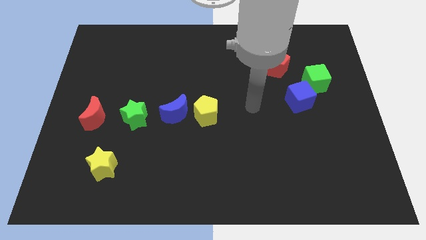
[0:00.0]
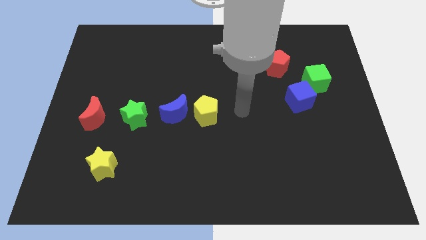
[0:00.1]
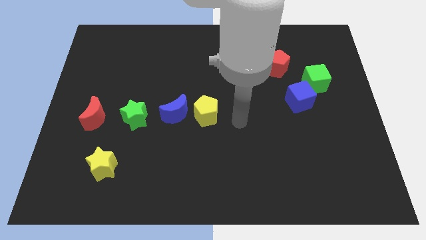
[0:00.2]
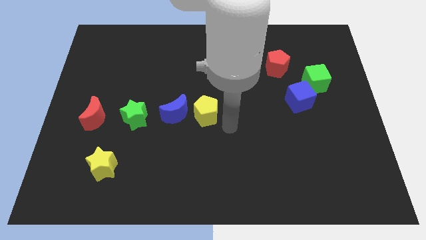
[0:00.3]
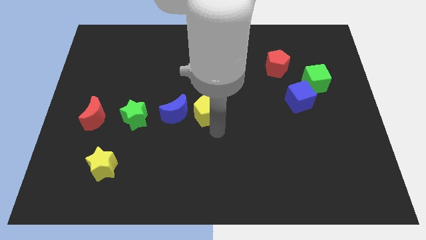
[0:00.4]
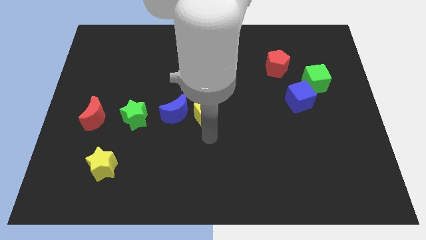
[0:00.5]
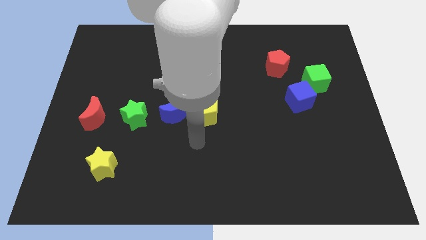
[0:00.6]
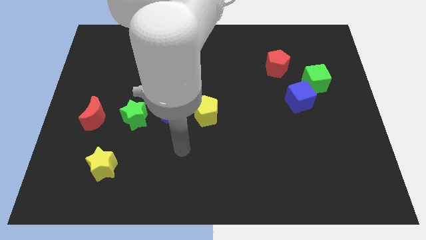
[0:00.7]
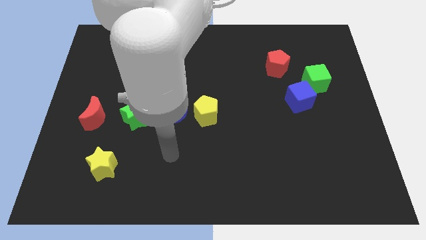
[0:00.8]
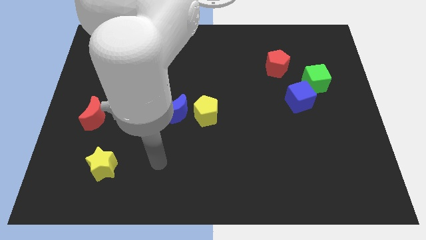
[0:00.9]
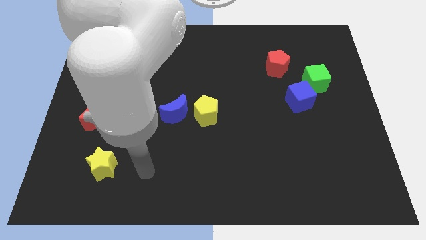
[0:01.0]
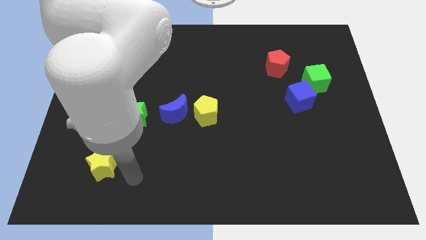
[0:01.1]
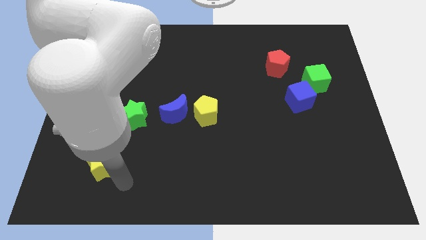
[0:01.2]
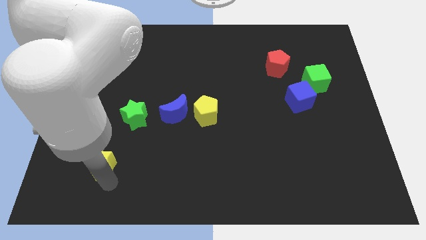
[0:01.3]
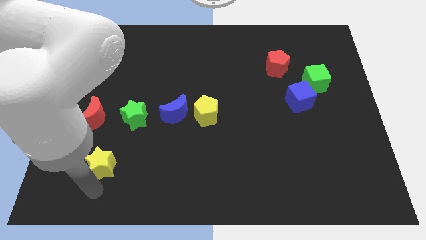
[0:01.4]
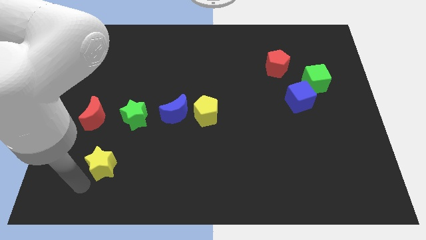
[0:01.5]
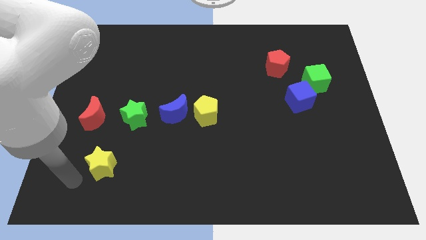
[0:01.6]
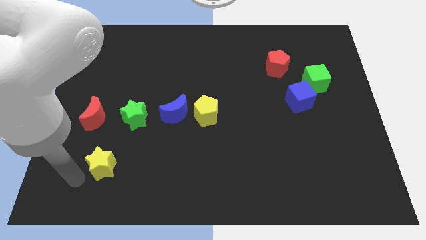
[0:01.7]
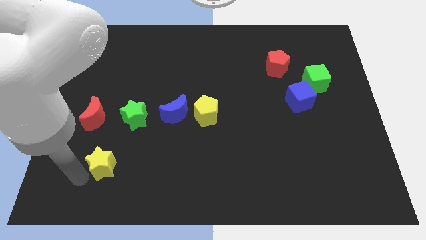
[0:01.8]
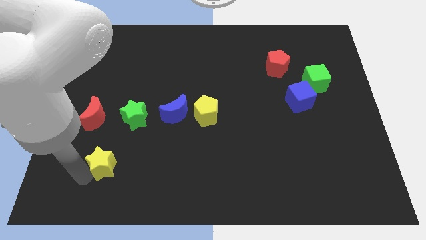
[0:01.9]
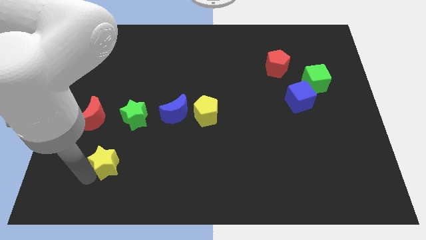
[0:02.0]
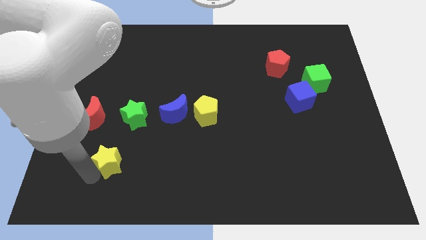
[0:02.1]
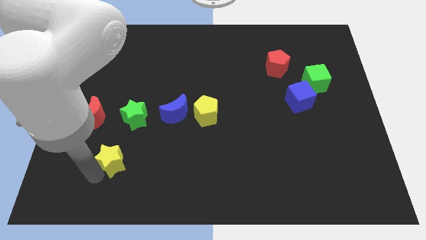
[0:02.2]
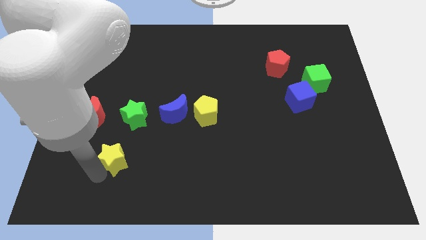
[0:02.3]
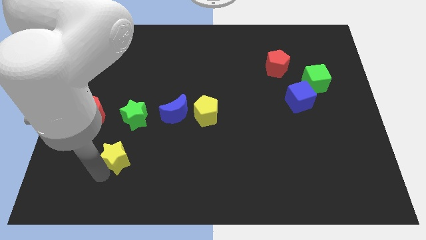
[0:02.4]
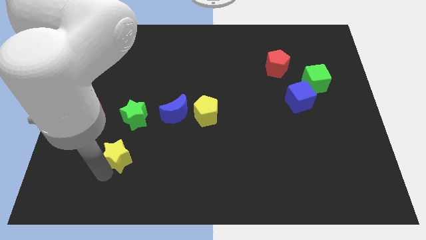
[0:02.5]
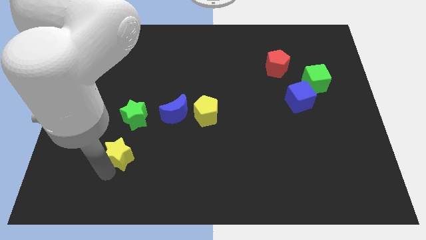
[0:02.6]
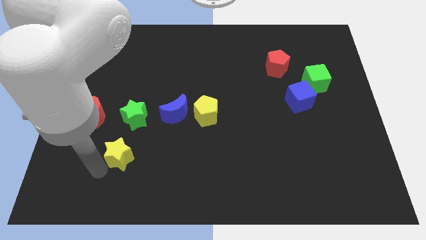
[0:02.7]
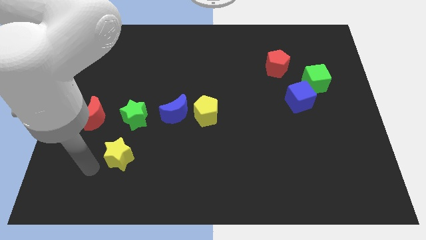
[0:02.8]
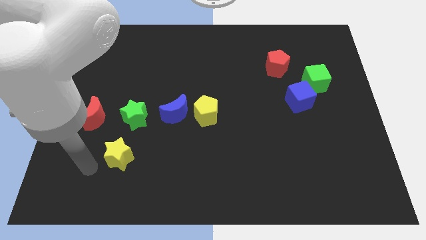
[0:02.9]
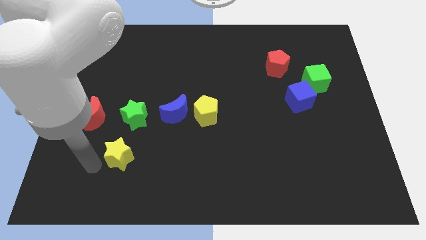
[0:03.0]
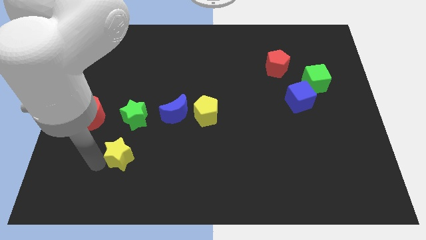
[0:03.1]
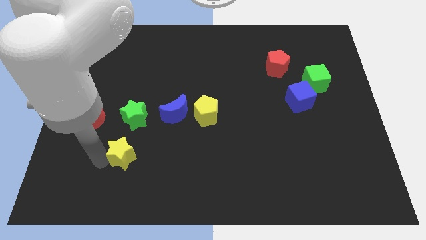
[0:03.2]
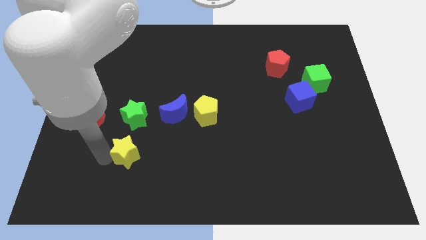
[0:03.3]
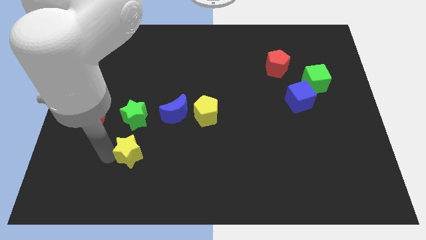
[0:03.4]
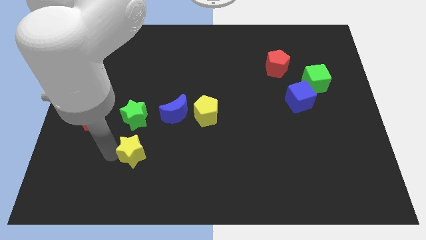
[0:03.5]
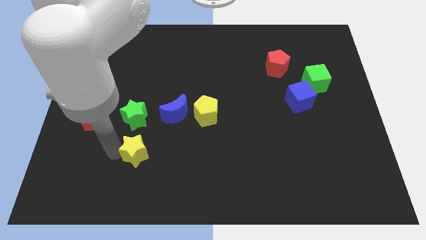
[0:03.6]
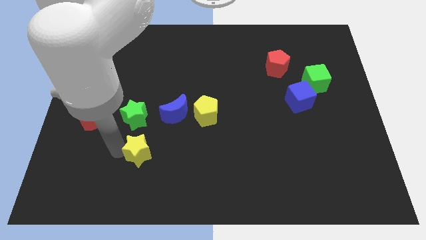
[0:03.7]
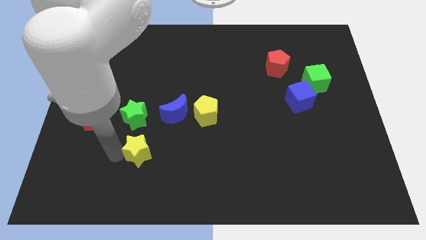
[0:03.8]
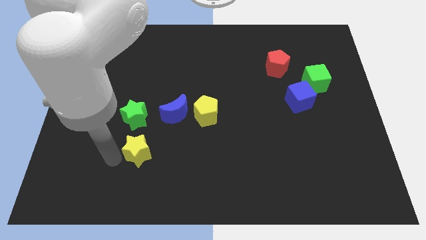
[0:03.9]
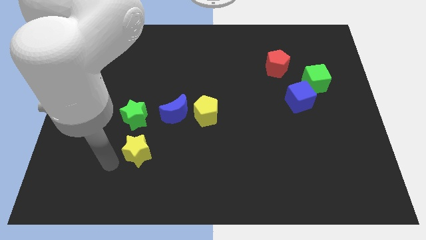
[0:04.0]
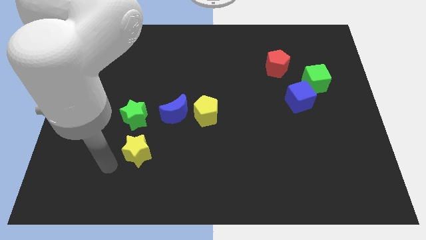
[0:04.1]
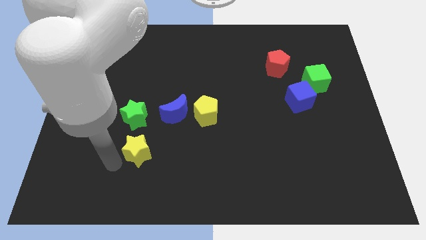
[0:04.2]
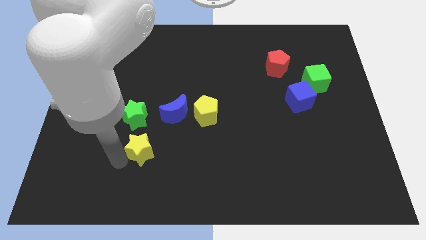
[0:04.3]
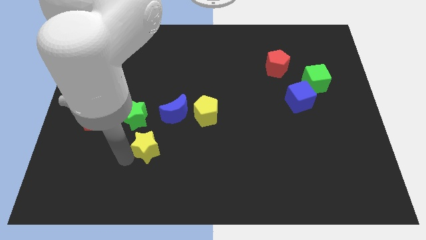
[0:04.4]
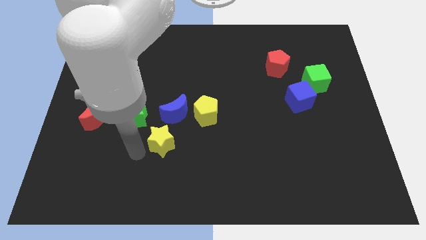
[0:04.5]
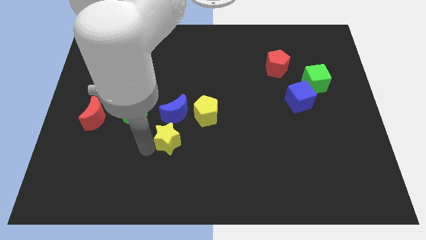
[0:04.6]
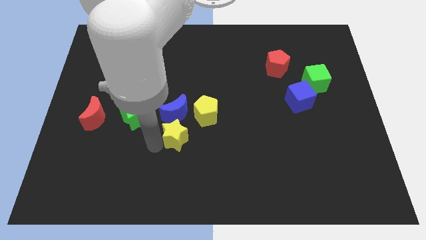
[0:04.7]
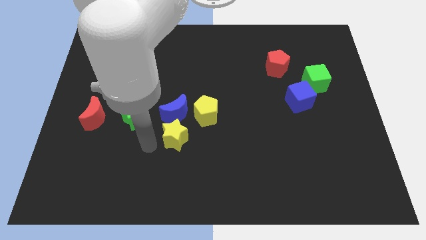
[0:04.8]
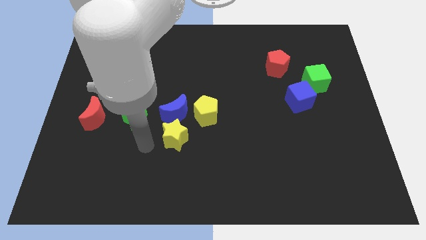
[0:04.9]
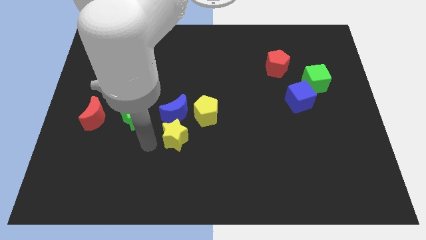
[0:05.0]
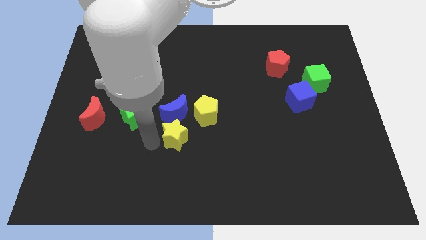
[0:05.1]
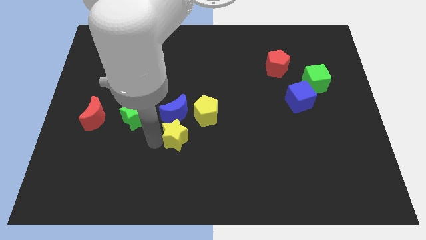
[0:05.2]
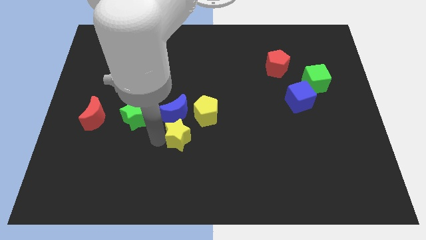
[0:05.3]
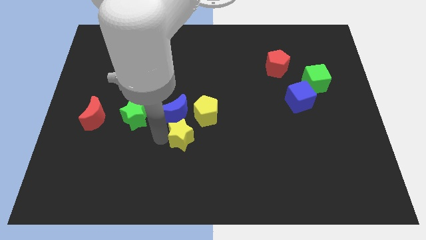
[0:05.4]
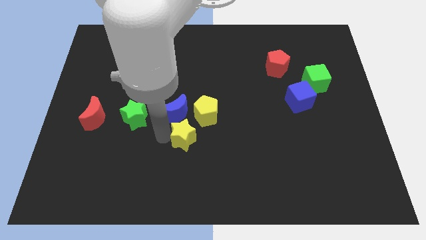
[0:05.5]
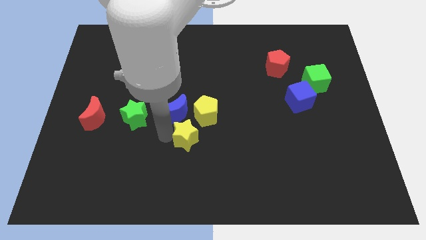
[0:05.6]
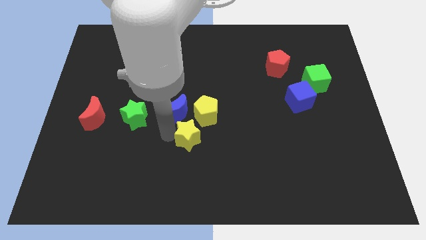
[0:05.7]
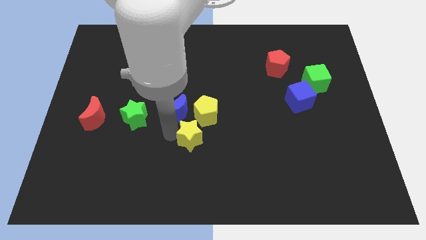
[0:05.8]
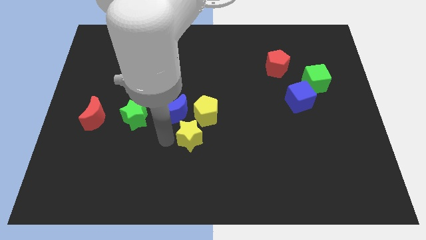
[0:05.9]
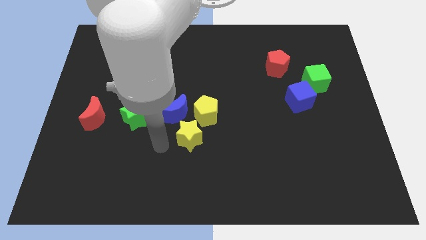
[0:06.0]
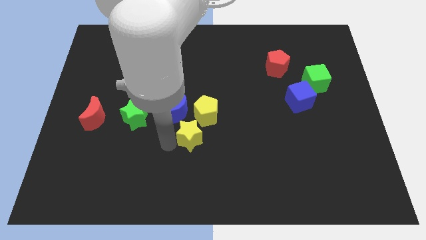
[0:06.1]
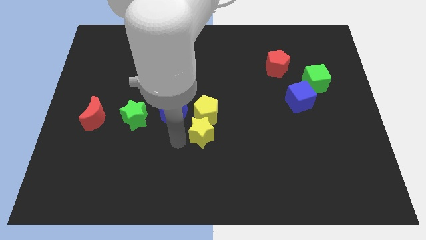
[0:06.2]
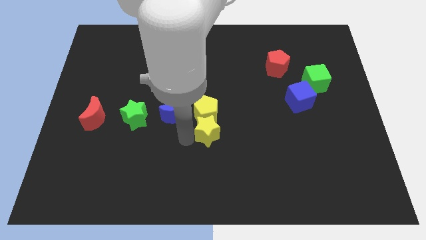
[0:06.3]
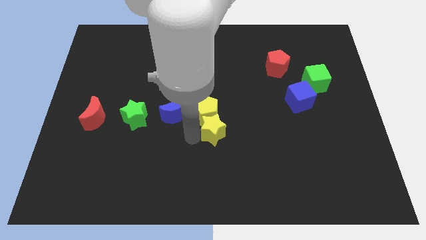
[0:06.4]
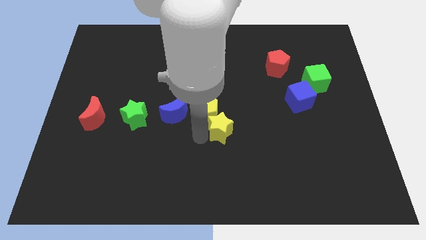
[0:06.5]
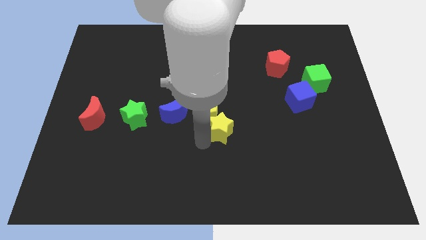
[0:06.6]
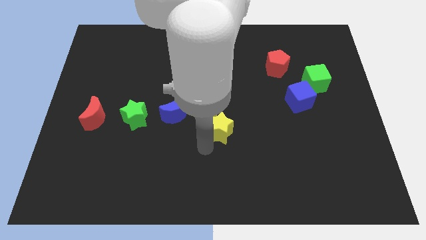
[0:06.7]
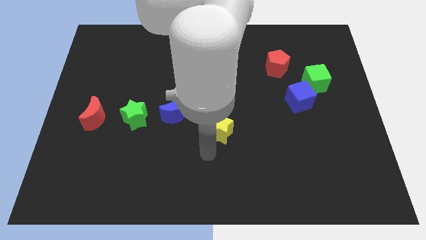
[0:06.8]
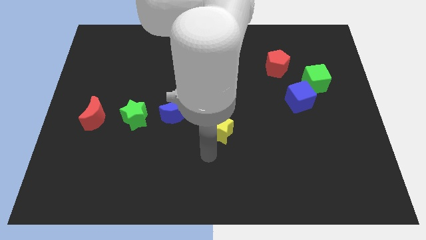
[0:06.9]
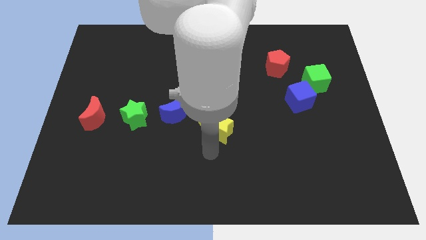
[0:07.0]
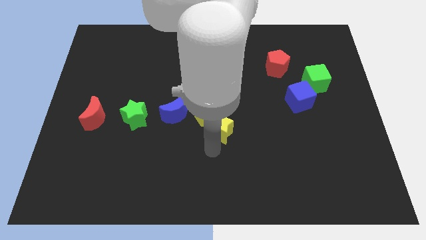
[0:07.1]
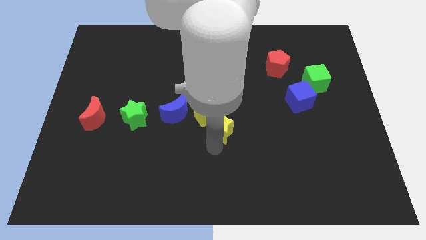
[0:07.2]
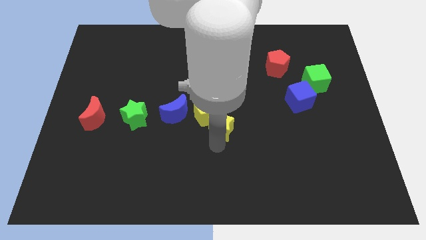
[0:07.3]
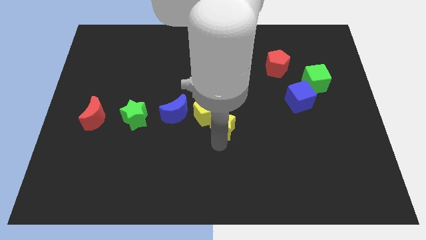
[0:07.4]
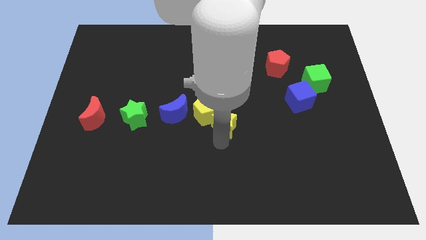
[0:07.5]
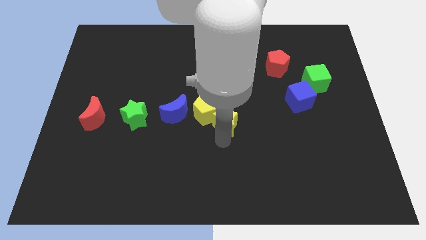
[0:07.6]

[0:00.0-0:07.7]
slide the yellow star diagonally up and to the right

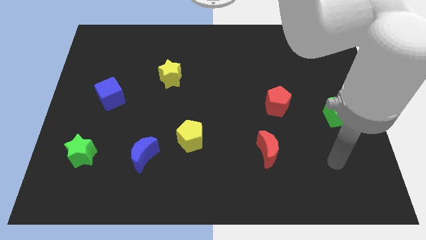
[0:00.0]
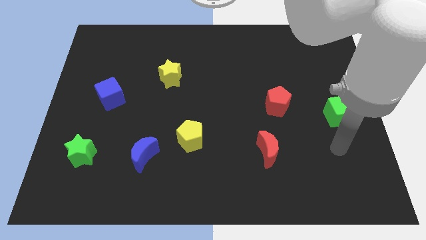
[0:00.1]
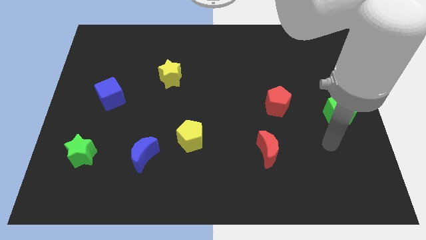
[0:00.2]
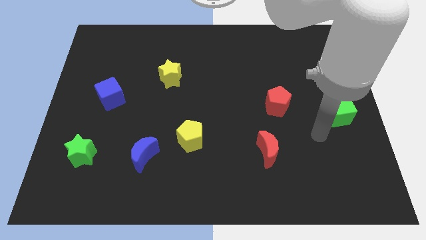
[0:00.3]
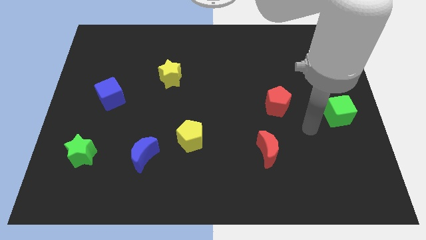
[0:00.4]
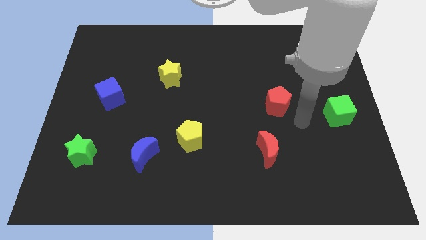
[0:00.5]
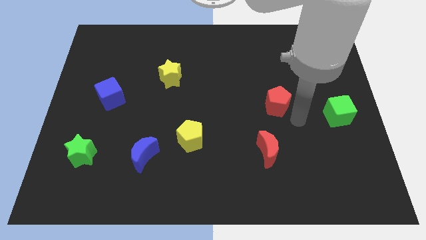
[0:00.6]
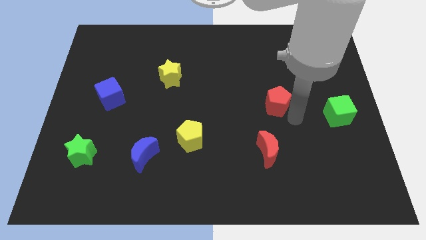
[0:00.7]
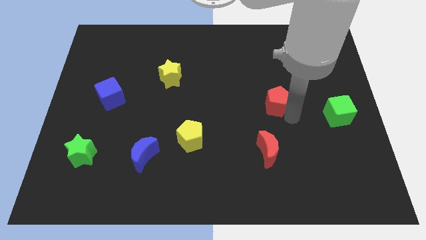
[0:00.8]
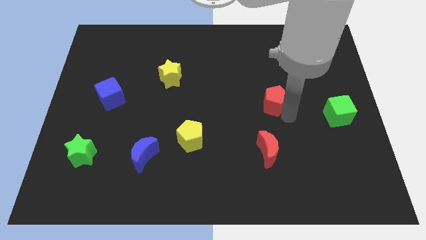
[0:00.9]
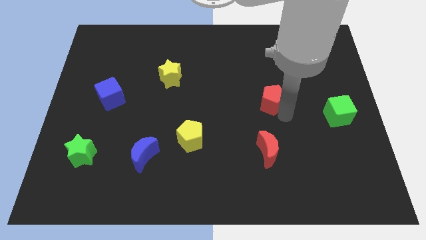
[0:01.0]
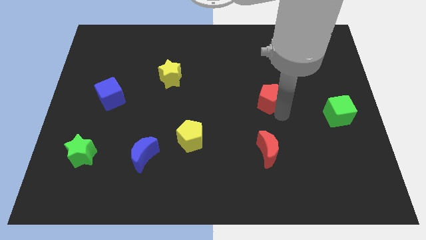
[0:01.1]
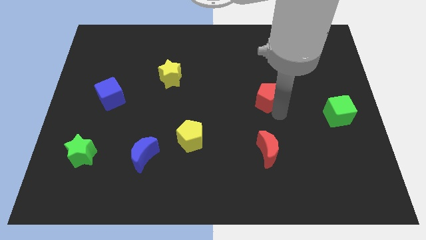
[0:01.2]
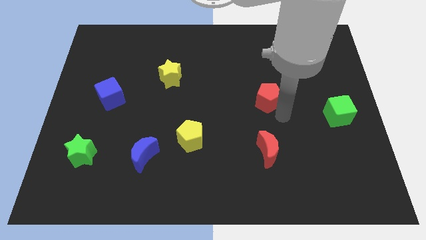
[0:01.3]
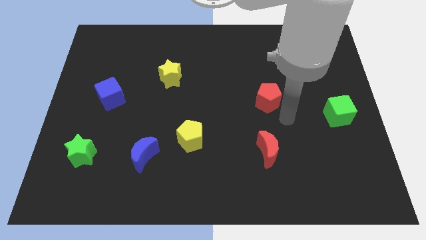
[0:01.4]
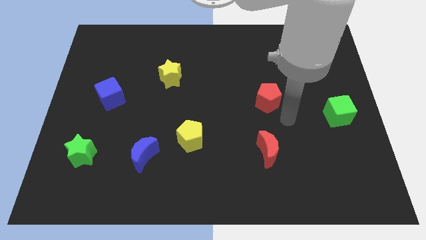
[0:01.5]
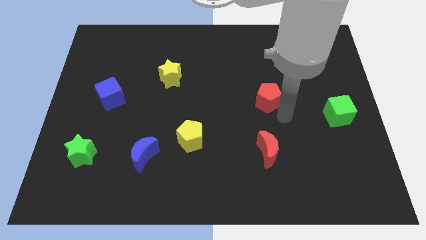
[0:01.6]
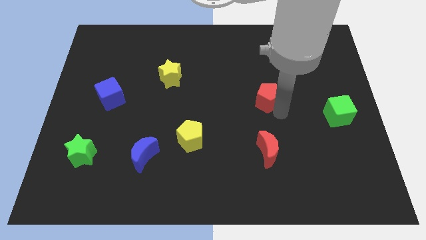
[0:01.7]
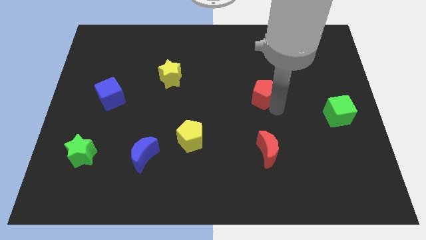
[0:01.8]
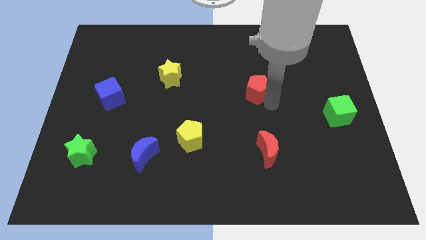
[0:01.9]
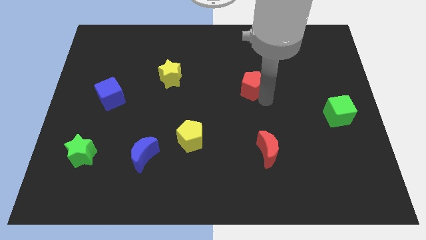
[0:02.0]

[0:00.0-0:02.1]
push the red pentagon up and to the left diagonally somewhat
